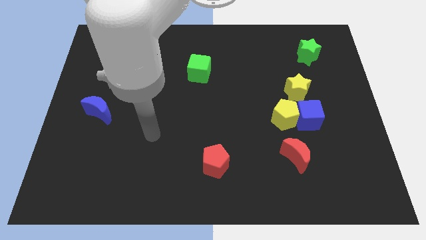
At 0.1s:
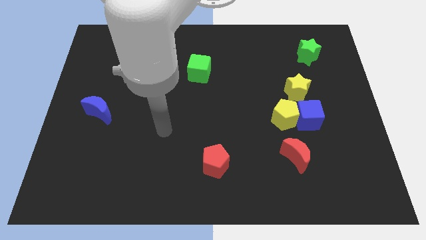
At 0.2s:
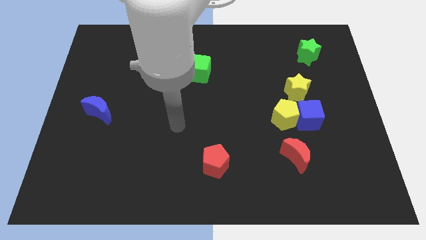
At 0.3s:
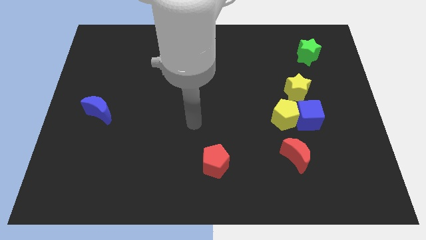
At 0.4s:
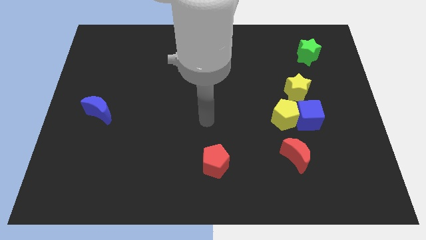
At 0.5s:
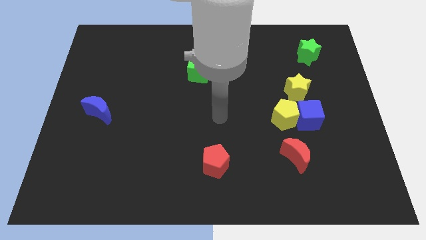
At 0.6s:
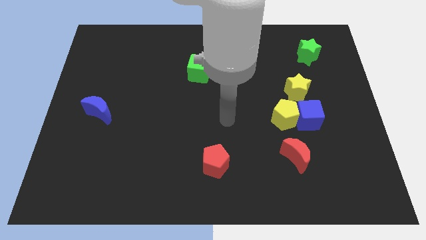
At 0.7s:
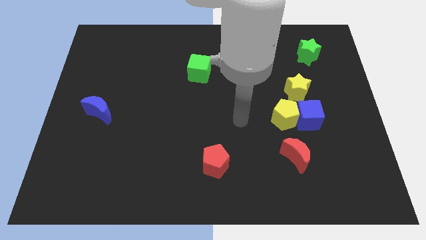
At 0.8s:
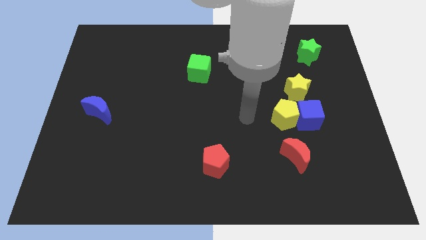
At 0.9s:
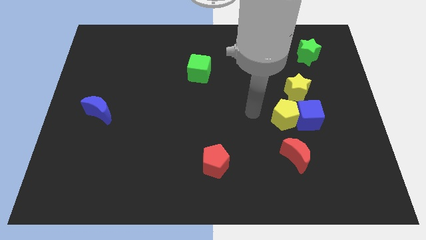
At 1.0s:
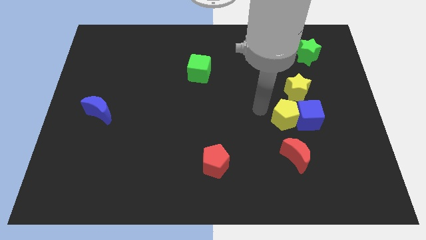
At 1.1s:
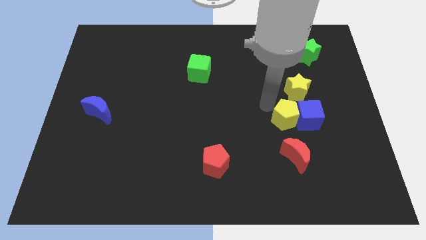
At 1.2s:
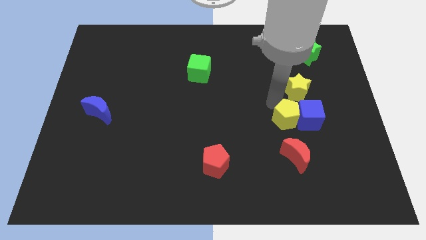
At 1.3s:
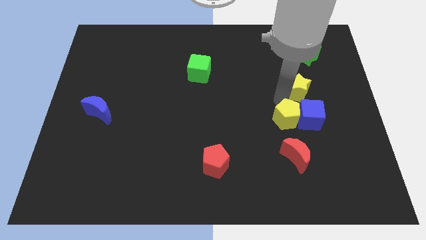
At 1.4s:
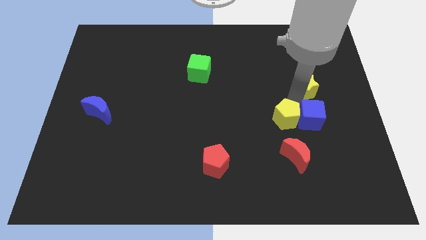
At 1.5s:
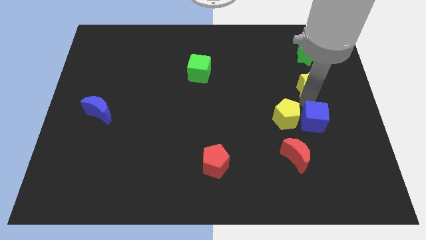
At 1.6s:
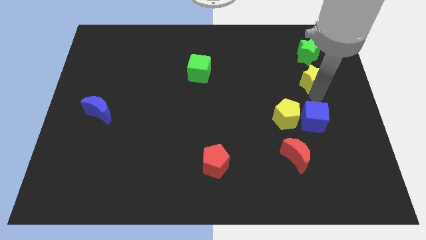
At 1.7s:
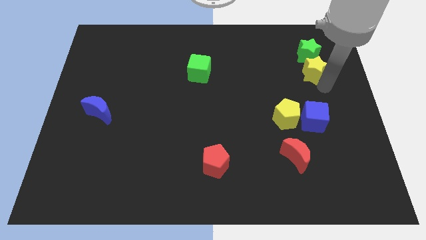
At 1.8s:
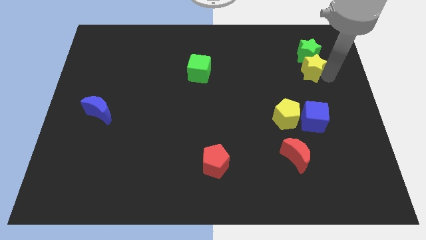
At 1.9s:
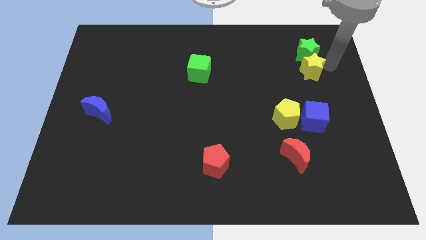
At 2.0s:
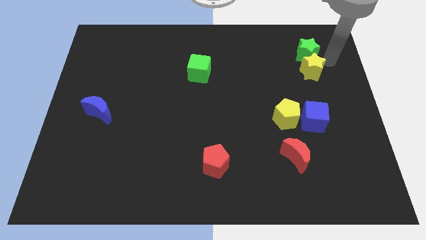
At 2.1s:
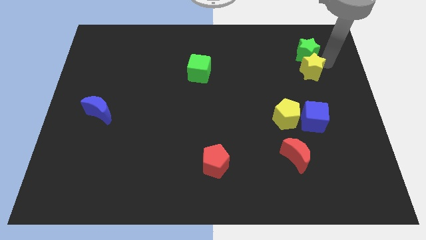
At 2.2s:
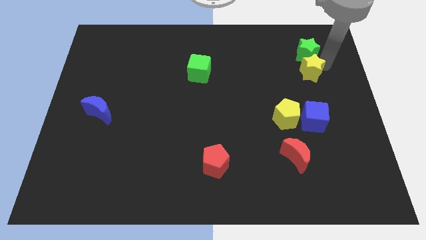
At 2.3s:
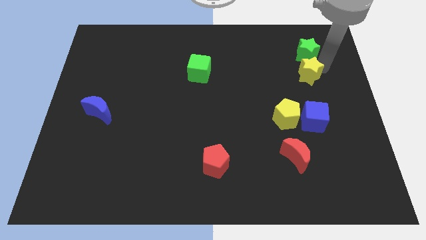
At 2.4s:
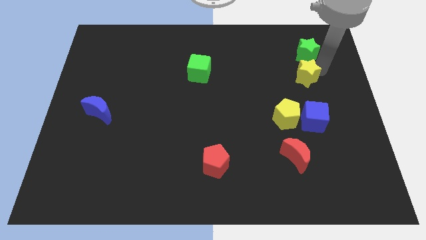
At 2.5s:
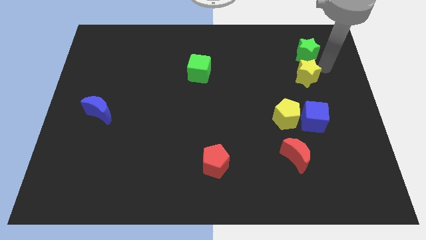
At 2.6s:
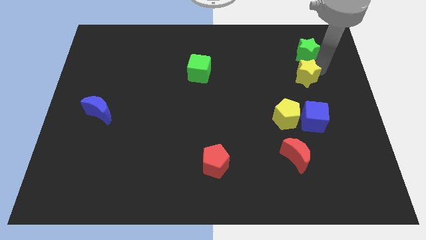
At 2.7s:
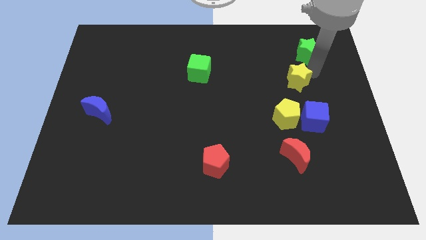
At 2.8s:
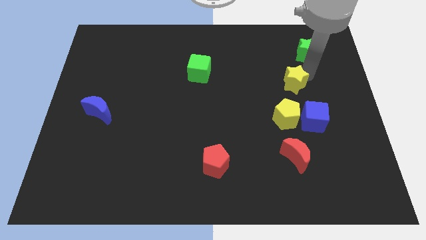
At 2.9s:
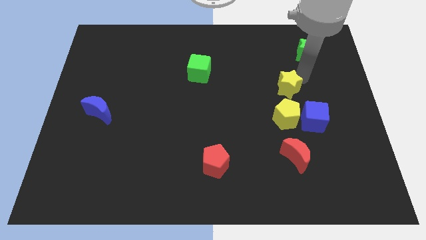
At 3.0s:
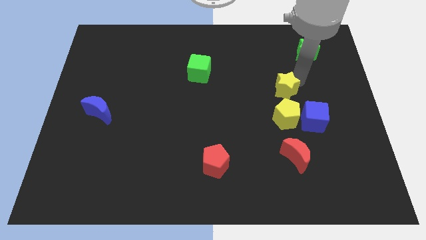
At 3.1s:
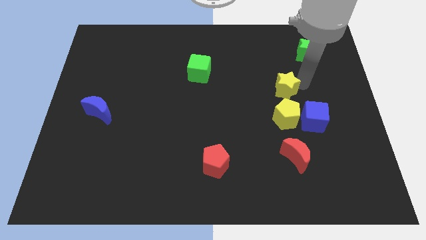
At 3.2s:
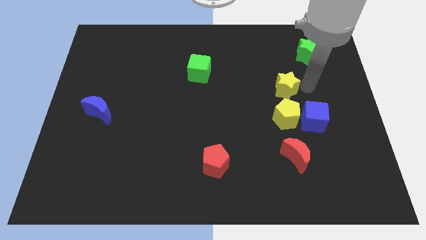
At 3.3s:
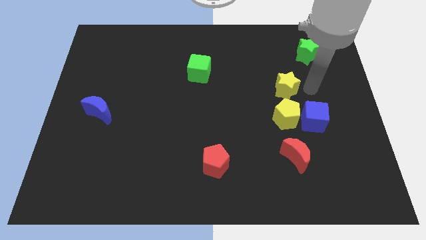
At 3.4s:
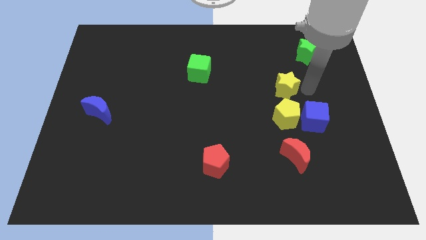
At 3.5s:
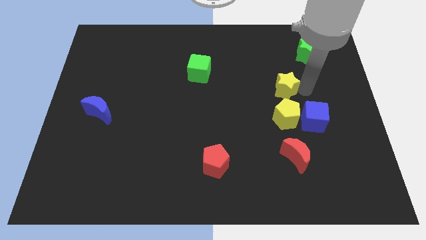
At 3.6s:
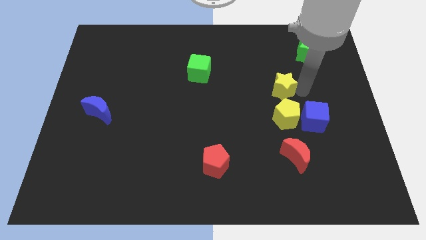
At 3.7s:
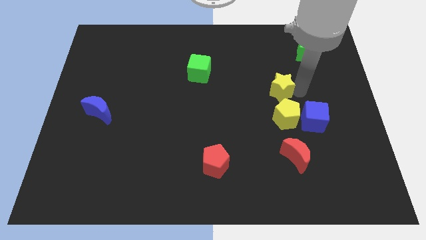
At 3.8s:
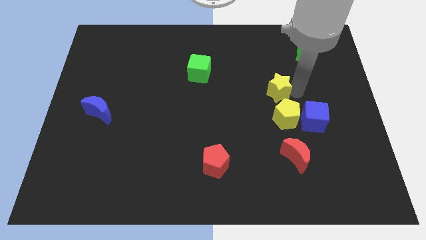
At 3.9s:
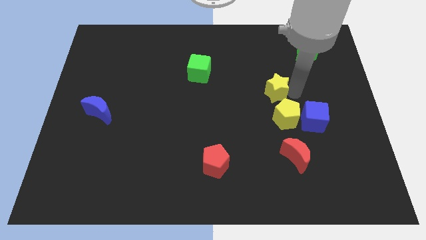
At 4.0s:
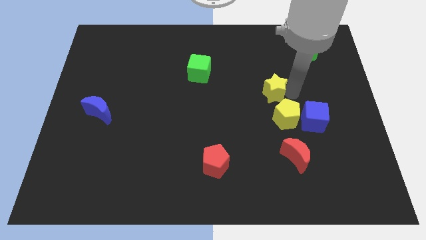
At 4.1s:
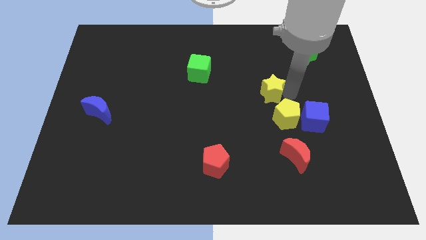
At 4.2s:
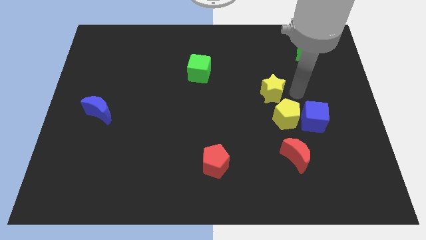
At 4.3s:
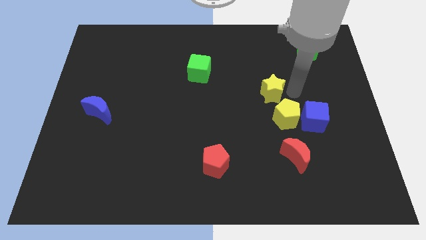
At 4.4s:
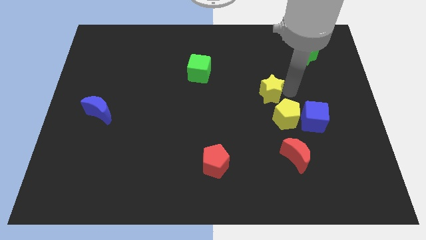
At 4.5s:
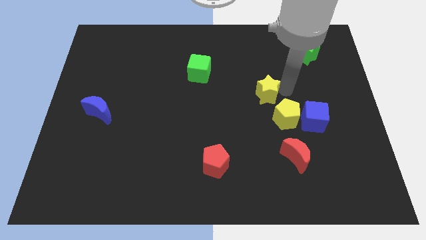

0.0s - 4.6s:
slide the yellow star a little to the left

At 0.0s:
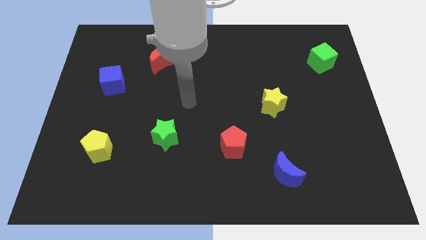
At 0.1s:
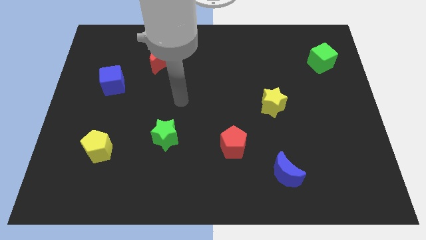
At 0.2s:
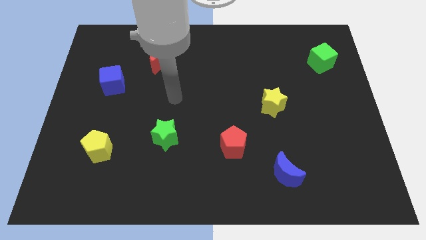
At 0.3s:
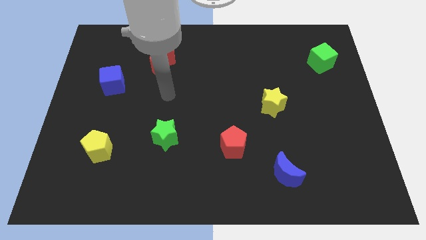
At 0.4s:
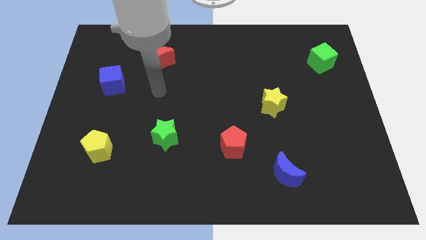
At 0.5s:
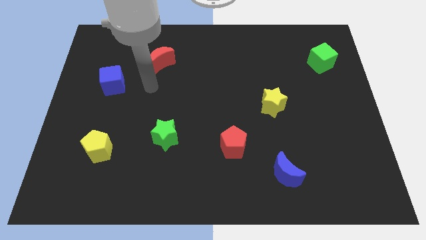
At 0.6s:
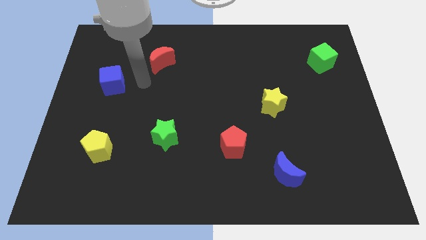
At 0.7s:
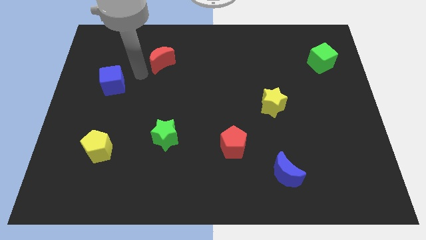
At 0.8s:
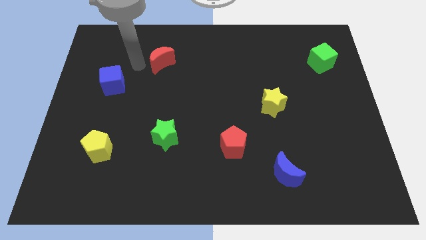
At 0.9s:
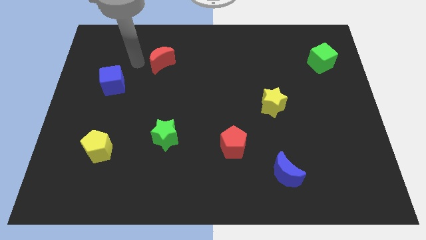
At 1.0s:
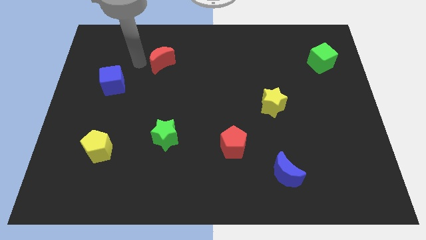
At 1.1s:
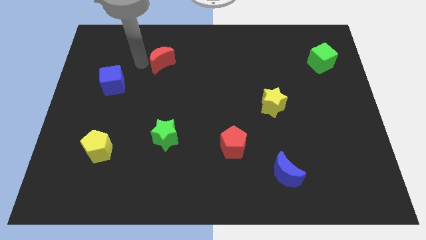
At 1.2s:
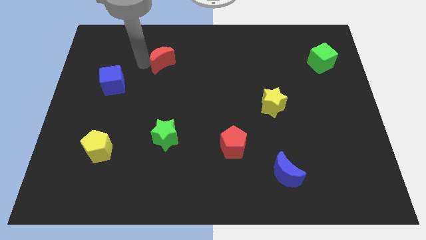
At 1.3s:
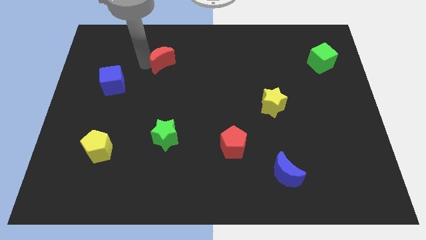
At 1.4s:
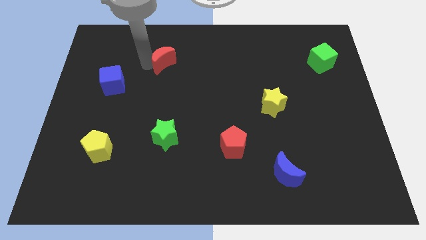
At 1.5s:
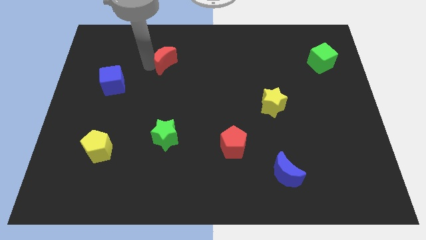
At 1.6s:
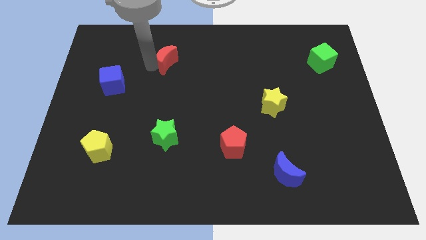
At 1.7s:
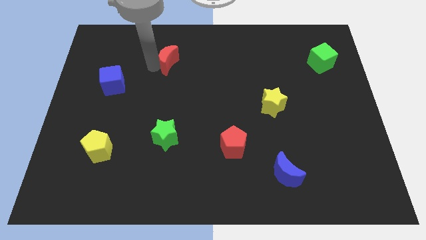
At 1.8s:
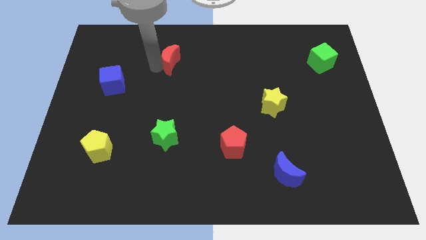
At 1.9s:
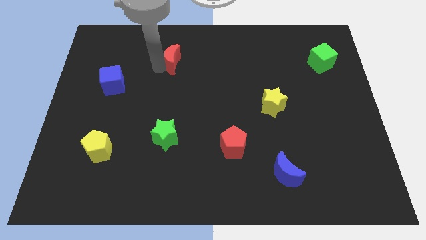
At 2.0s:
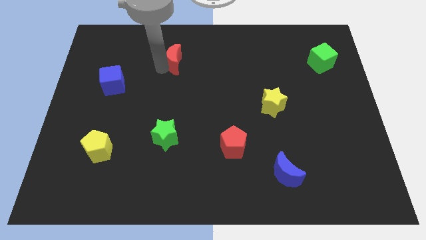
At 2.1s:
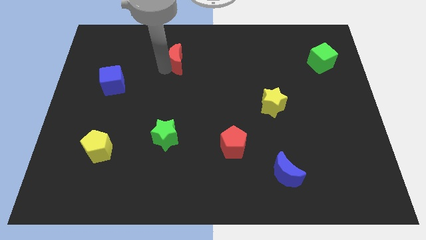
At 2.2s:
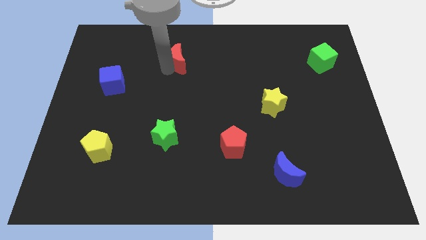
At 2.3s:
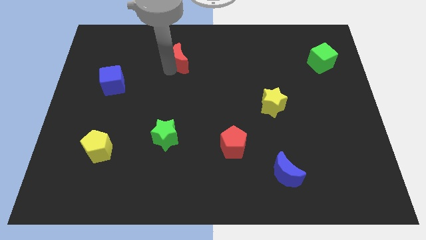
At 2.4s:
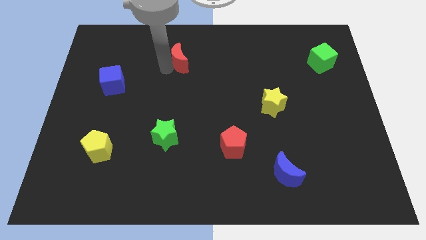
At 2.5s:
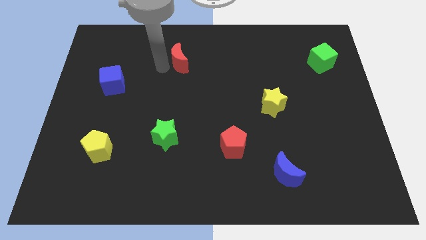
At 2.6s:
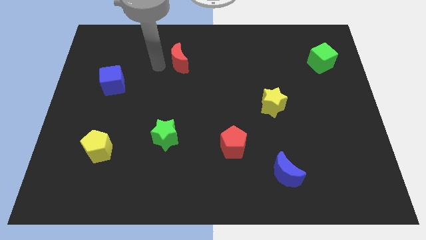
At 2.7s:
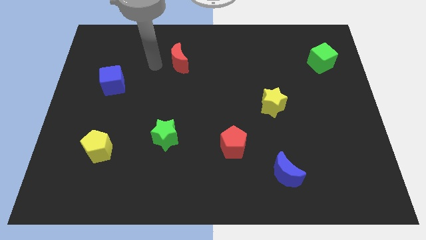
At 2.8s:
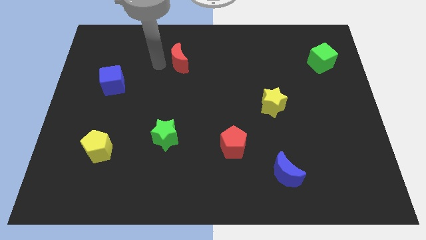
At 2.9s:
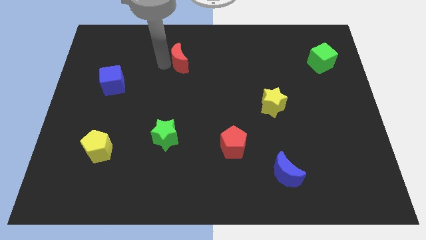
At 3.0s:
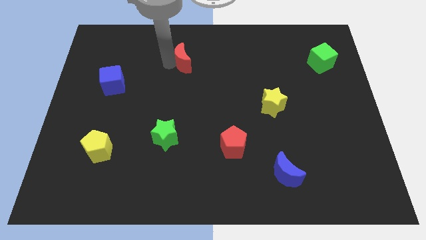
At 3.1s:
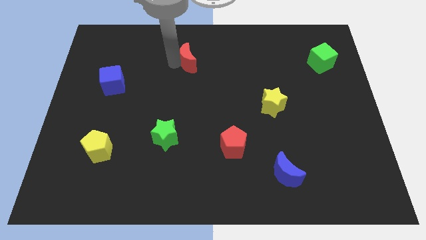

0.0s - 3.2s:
slightly push the red moon right

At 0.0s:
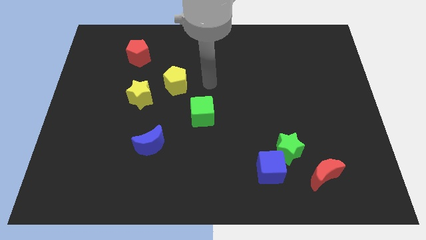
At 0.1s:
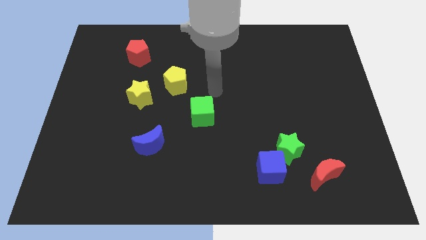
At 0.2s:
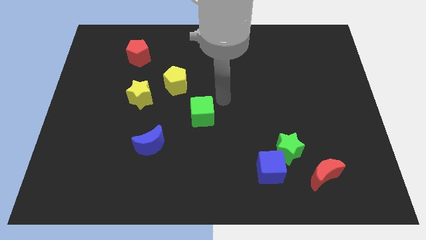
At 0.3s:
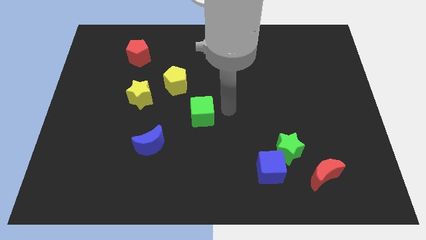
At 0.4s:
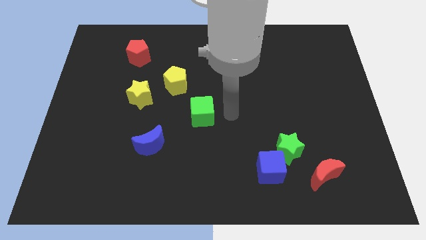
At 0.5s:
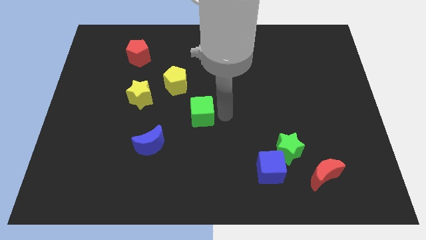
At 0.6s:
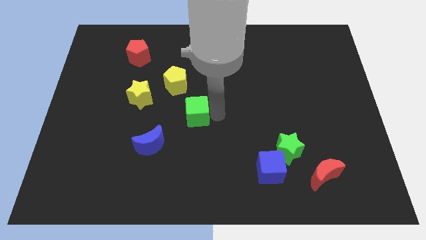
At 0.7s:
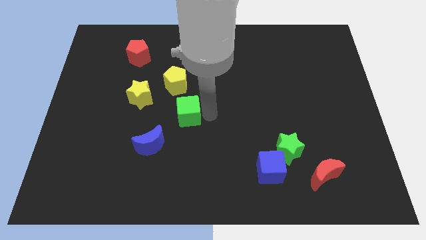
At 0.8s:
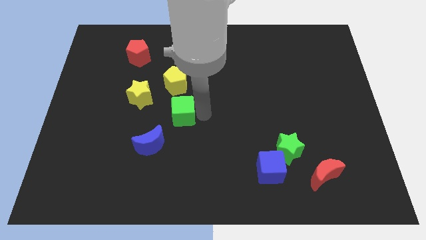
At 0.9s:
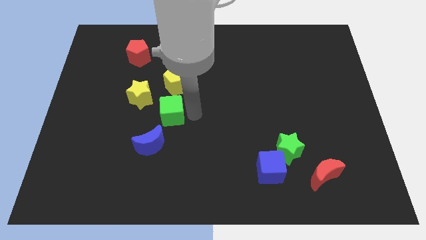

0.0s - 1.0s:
move the green cube somewhat left
